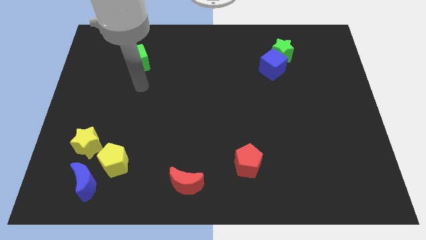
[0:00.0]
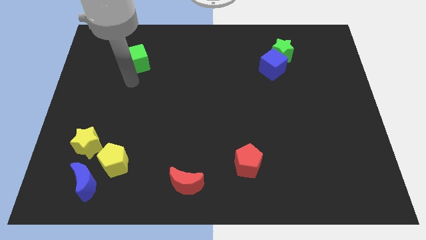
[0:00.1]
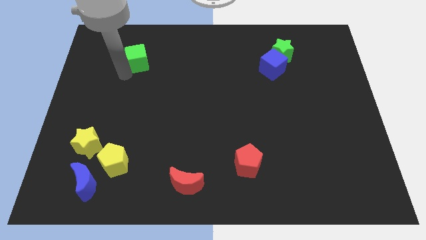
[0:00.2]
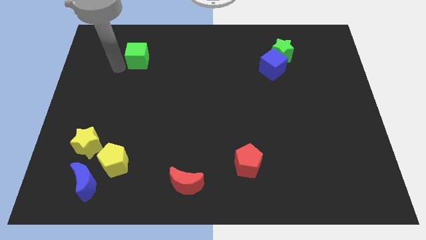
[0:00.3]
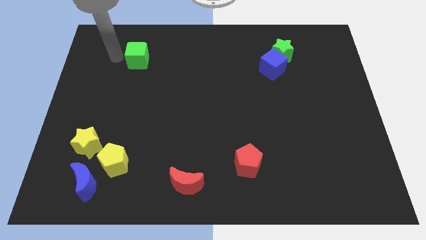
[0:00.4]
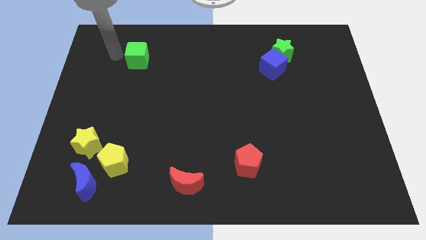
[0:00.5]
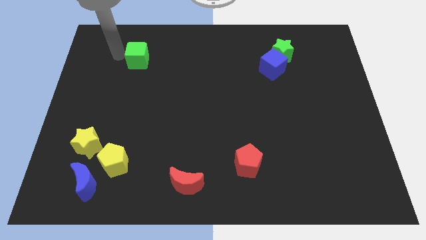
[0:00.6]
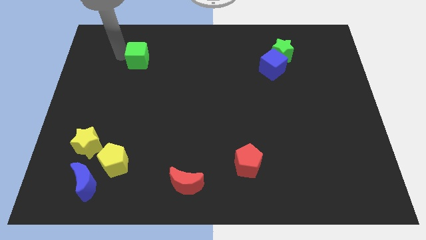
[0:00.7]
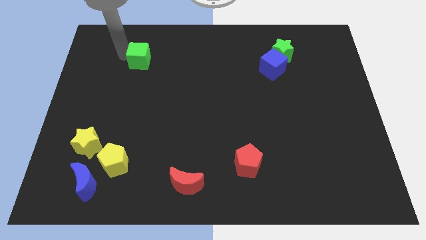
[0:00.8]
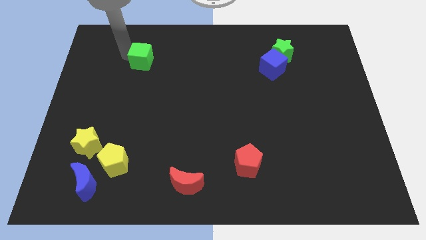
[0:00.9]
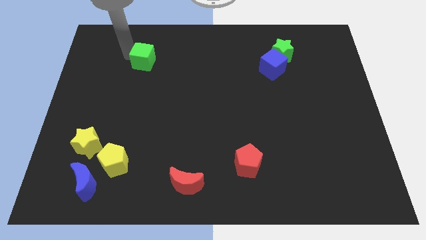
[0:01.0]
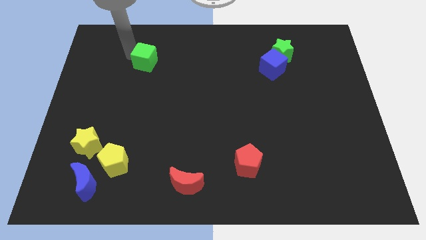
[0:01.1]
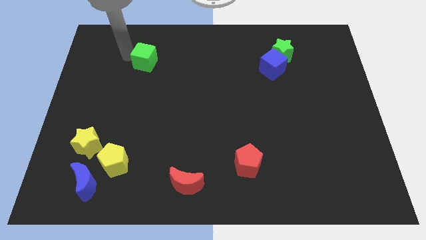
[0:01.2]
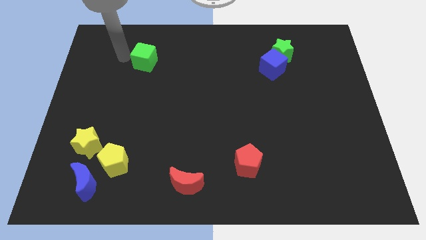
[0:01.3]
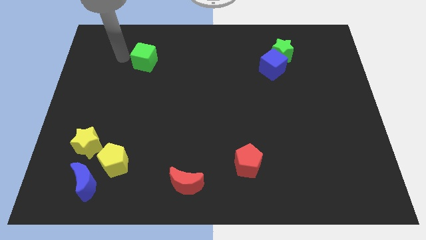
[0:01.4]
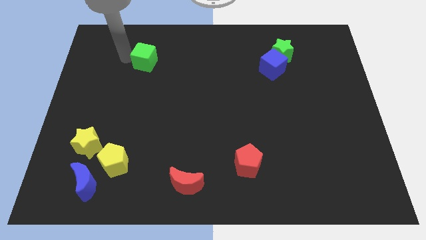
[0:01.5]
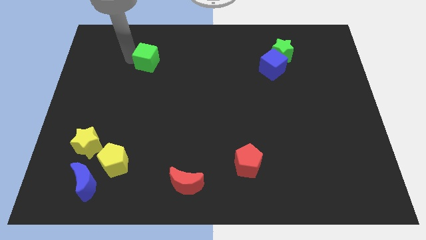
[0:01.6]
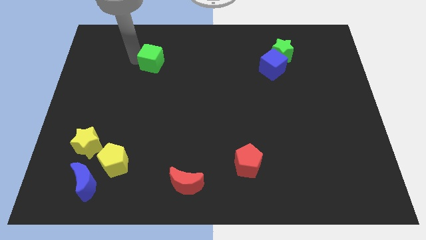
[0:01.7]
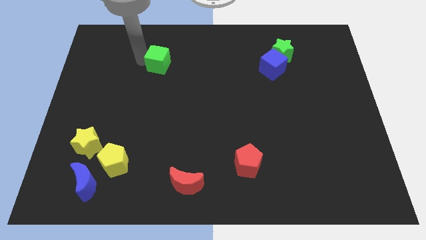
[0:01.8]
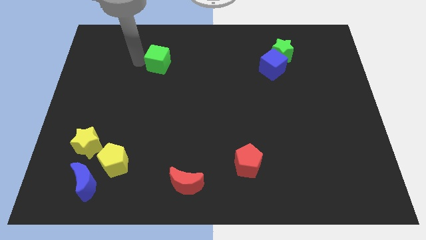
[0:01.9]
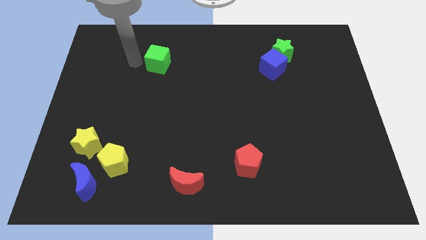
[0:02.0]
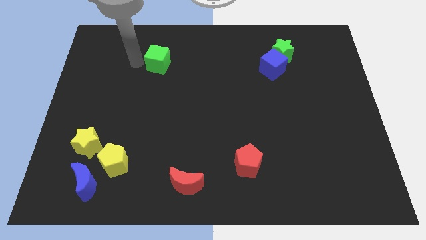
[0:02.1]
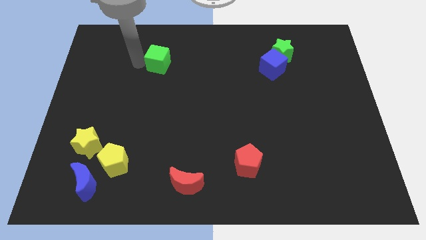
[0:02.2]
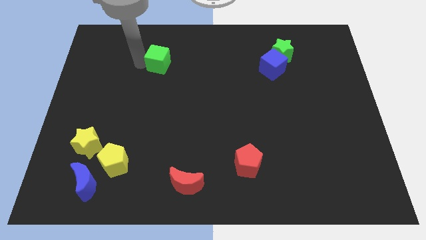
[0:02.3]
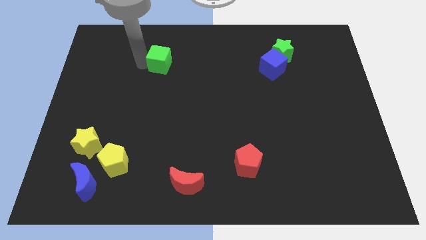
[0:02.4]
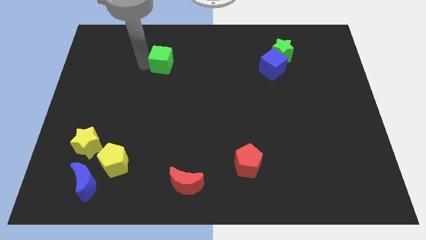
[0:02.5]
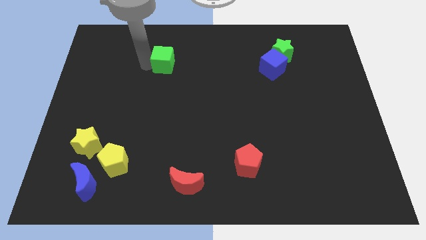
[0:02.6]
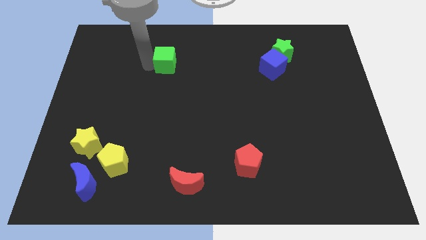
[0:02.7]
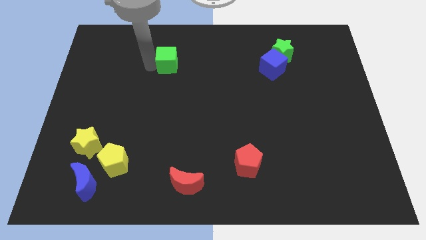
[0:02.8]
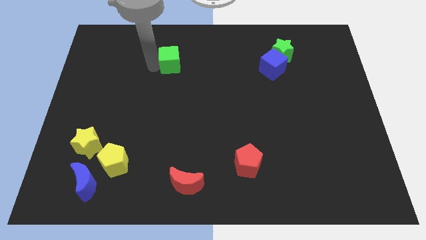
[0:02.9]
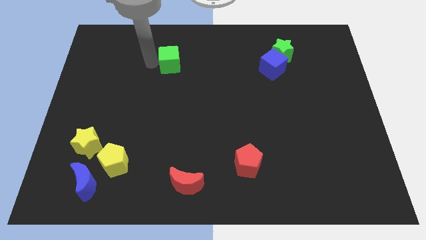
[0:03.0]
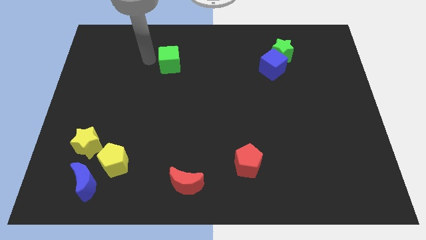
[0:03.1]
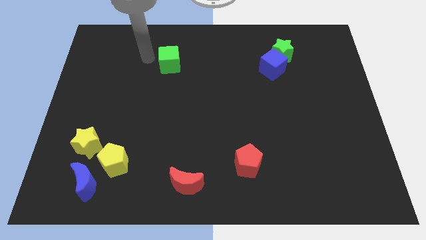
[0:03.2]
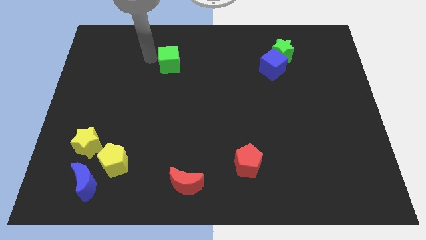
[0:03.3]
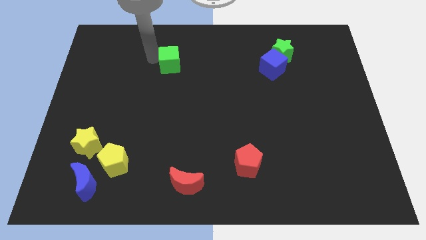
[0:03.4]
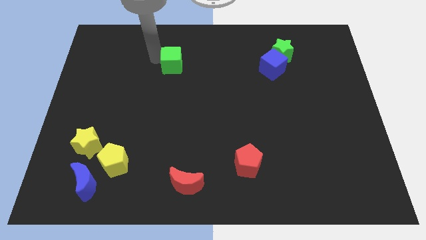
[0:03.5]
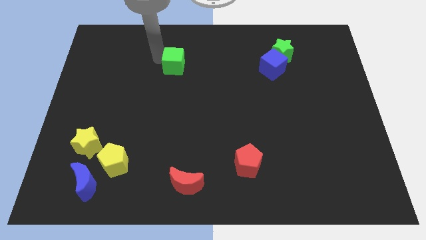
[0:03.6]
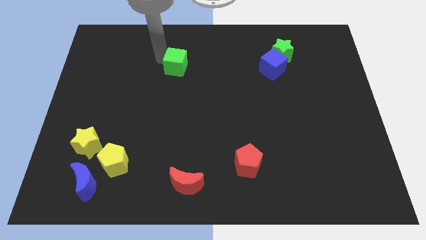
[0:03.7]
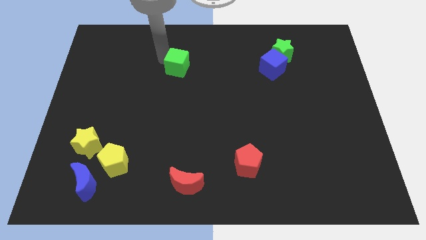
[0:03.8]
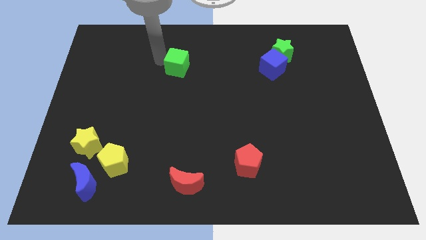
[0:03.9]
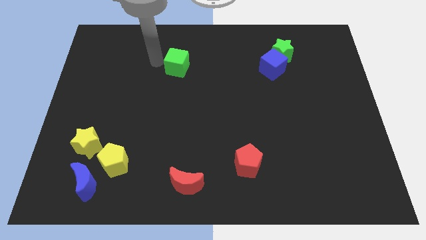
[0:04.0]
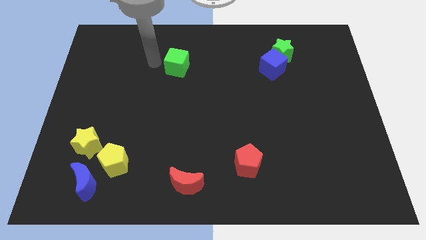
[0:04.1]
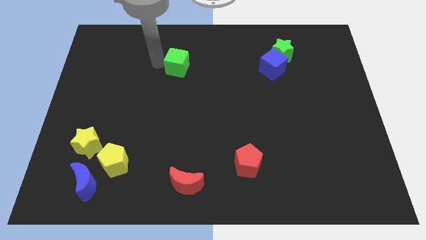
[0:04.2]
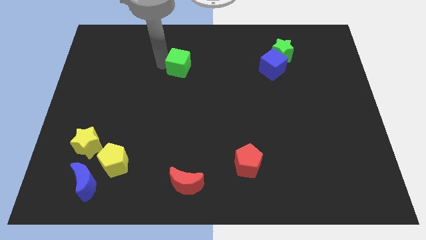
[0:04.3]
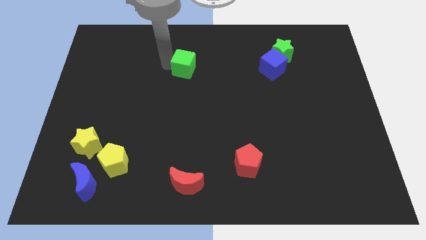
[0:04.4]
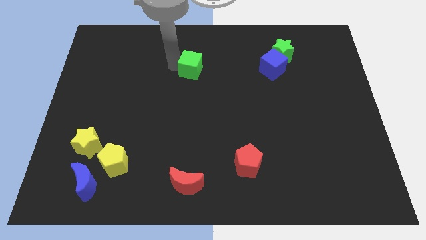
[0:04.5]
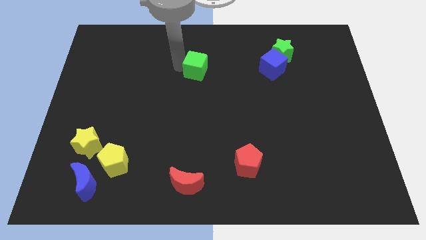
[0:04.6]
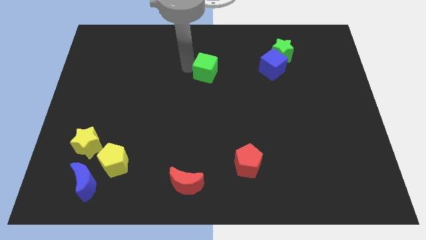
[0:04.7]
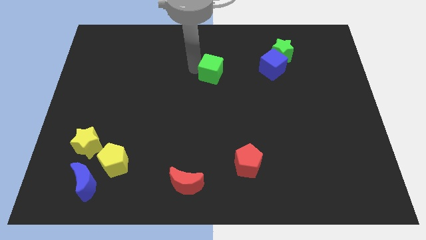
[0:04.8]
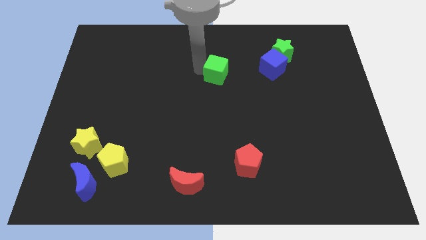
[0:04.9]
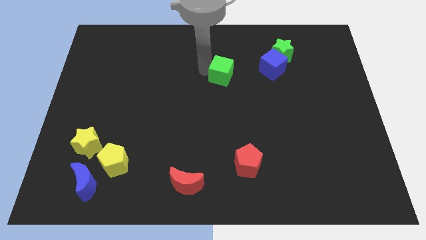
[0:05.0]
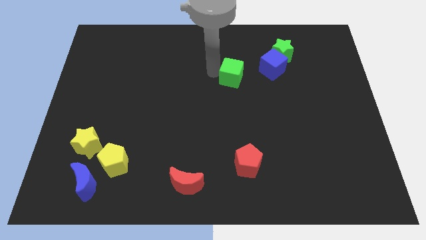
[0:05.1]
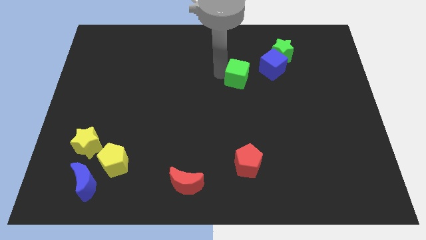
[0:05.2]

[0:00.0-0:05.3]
move the green cube to the bottom left side of the blue cube

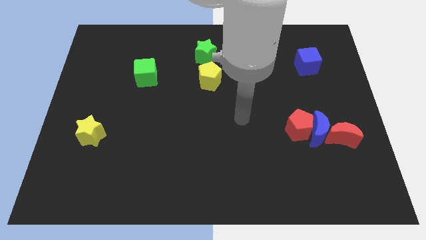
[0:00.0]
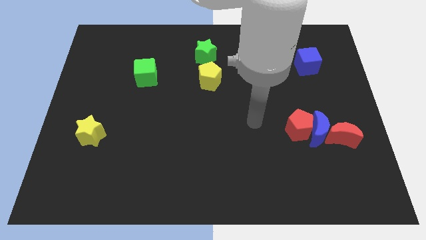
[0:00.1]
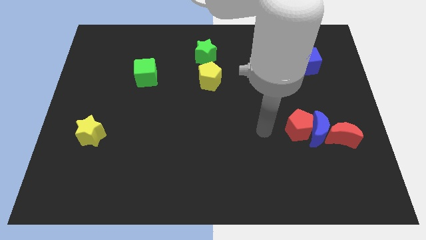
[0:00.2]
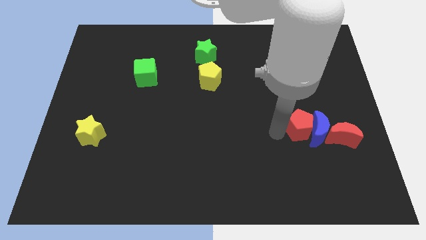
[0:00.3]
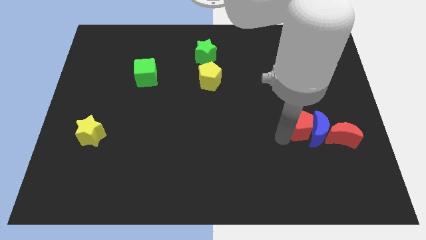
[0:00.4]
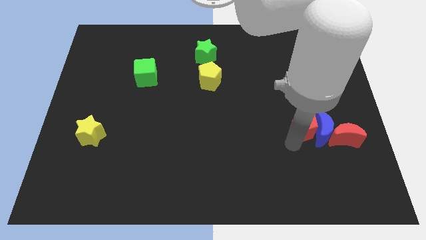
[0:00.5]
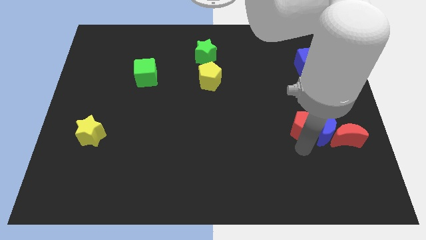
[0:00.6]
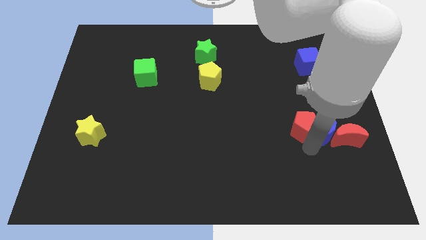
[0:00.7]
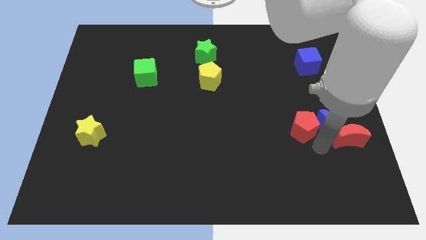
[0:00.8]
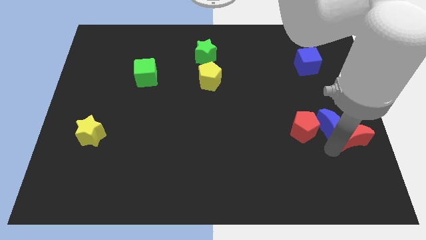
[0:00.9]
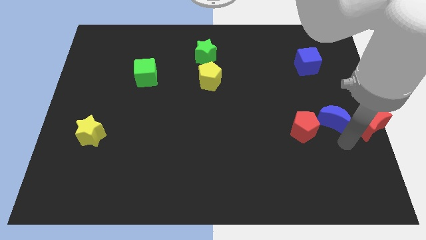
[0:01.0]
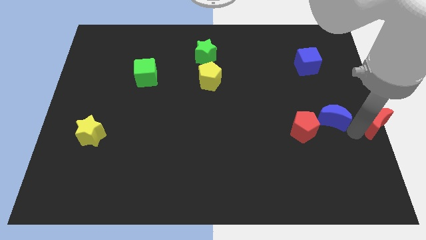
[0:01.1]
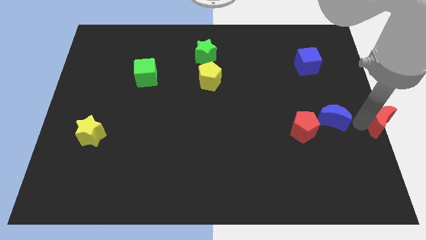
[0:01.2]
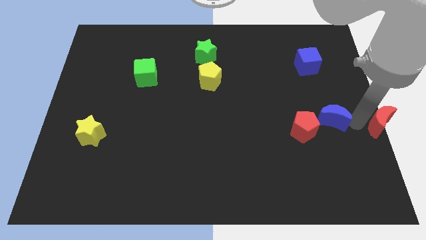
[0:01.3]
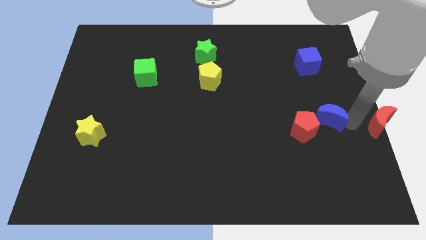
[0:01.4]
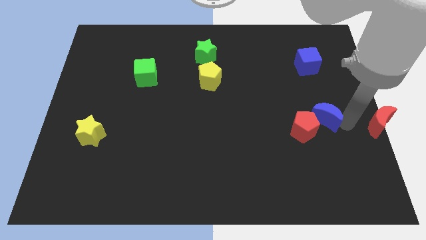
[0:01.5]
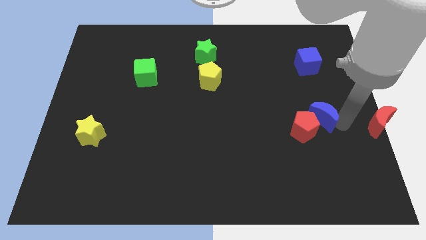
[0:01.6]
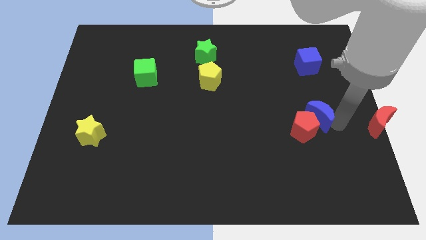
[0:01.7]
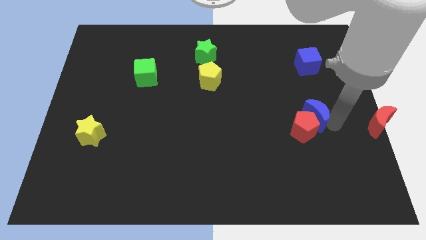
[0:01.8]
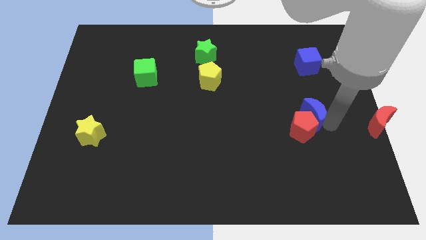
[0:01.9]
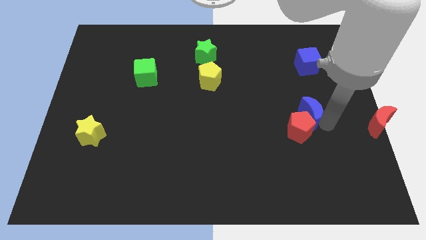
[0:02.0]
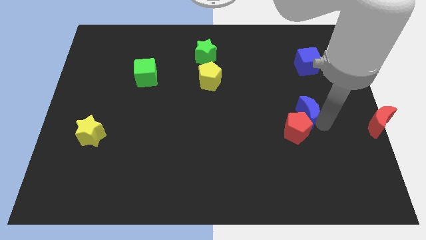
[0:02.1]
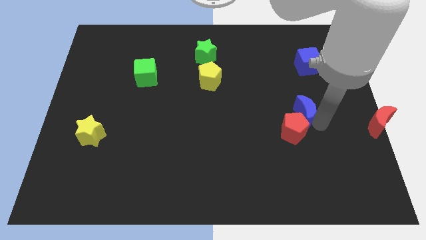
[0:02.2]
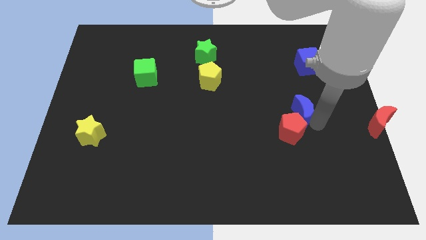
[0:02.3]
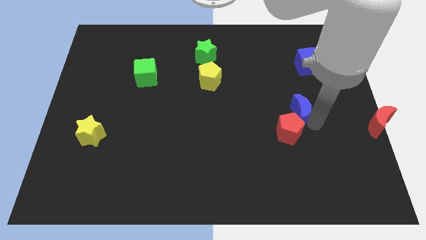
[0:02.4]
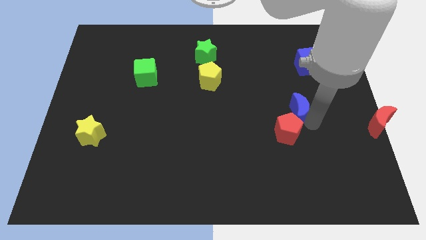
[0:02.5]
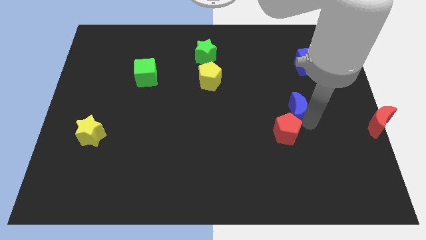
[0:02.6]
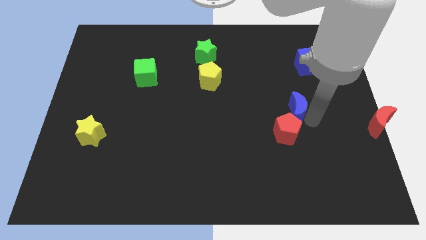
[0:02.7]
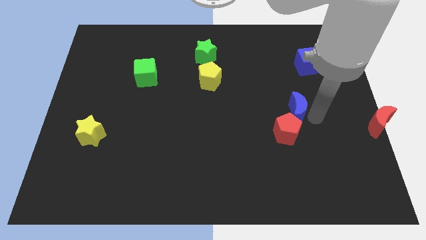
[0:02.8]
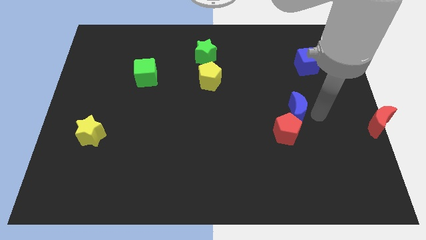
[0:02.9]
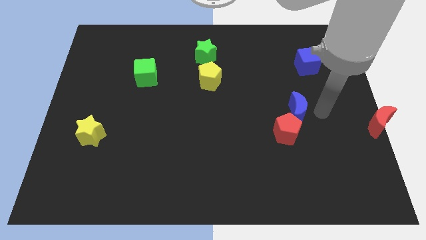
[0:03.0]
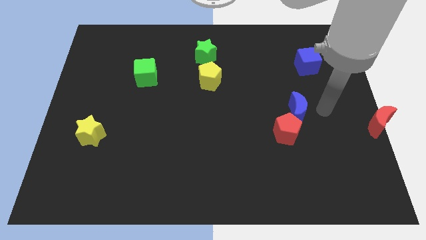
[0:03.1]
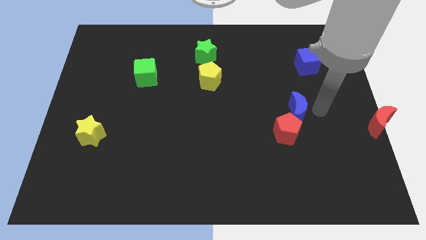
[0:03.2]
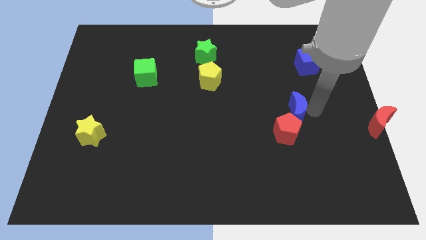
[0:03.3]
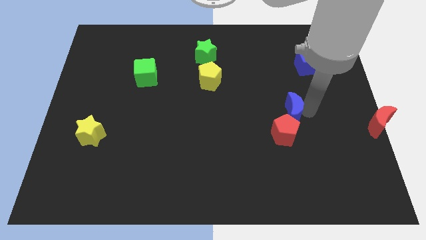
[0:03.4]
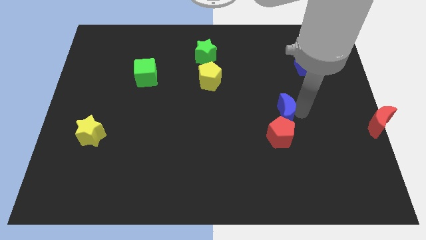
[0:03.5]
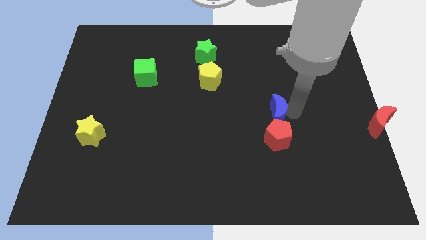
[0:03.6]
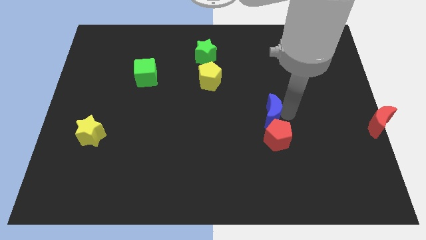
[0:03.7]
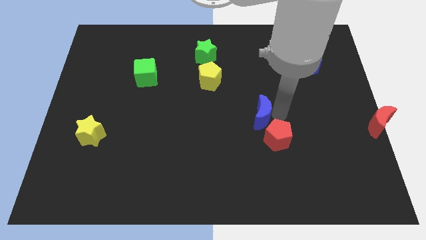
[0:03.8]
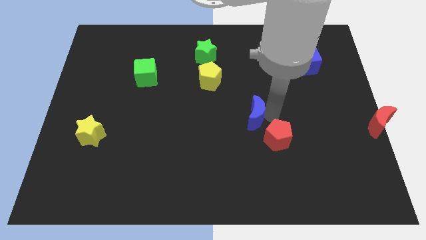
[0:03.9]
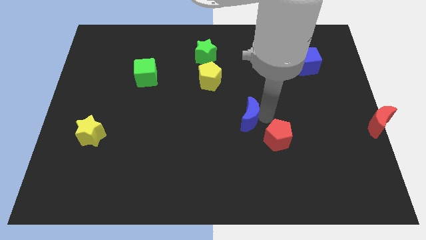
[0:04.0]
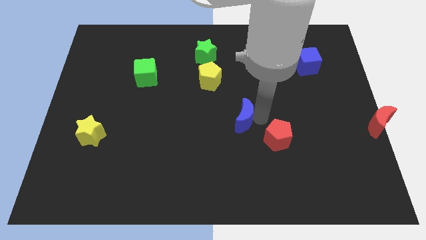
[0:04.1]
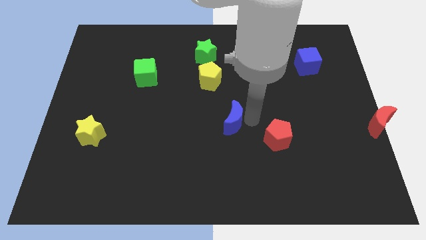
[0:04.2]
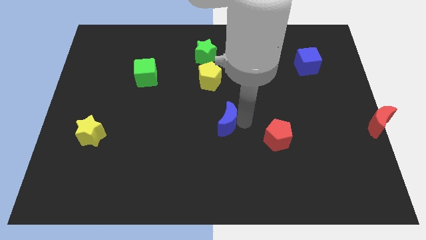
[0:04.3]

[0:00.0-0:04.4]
slide the blue moon to the bottom of the yellow pentagon
